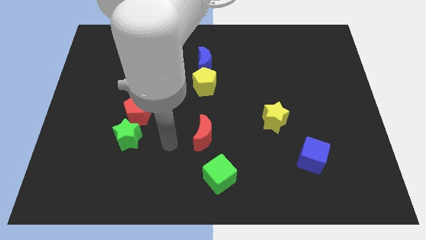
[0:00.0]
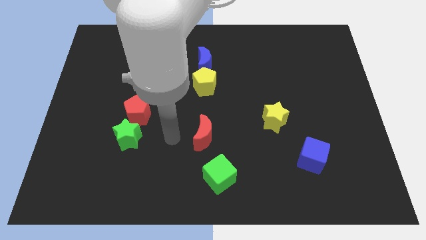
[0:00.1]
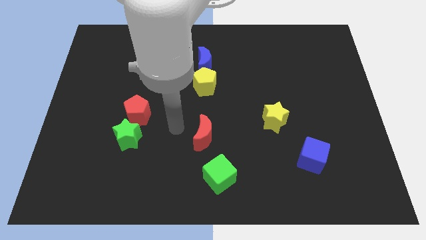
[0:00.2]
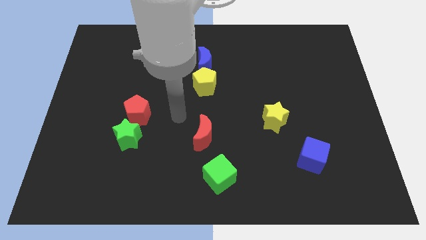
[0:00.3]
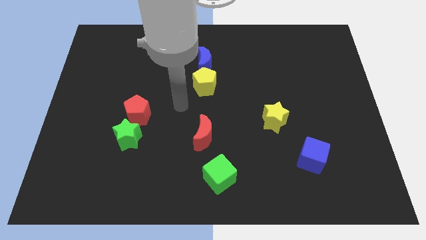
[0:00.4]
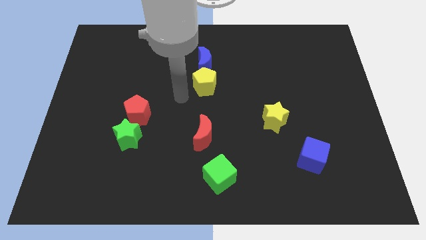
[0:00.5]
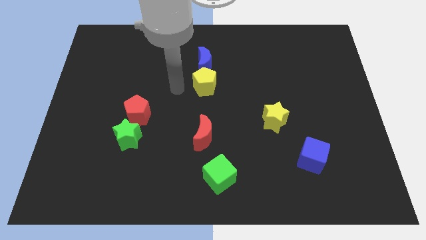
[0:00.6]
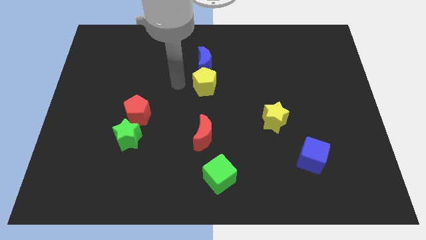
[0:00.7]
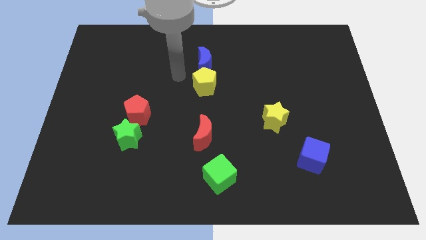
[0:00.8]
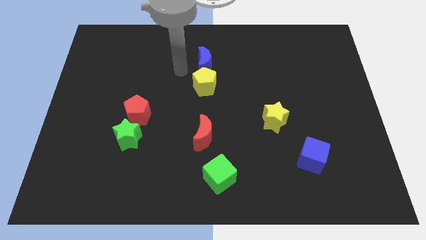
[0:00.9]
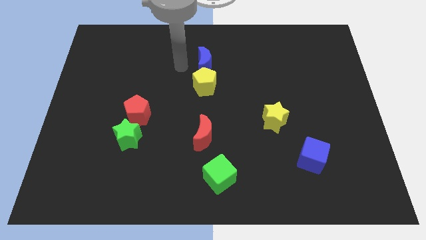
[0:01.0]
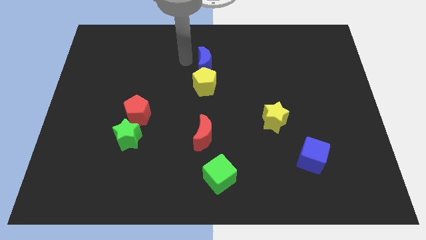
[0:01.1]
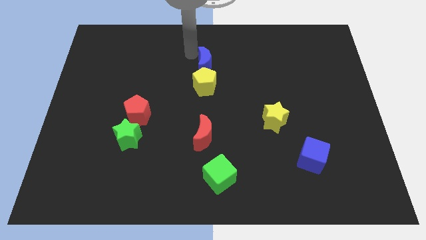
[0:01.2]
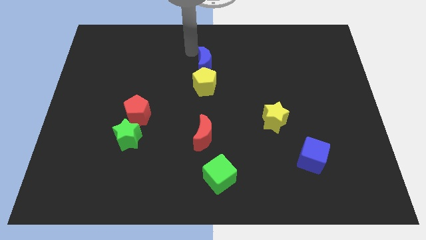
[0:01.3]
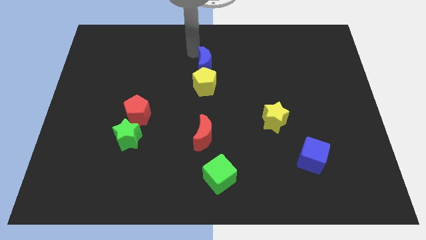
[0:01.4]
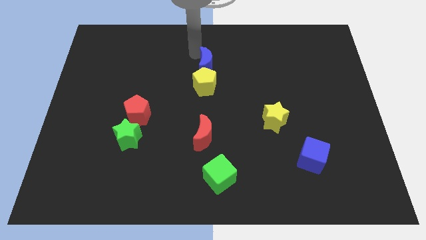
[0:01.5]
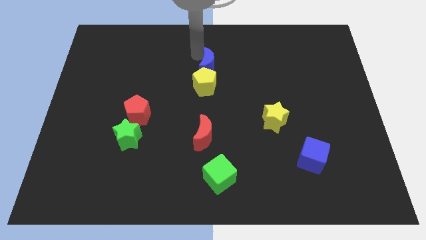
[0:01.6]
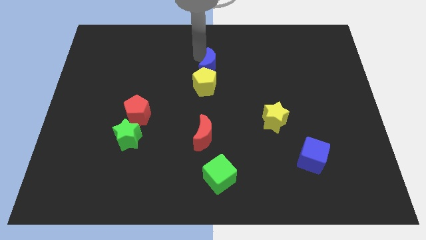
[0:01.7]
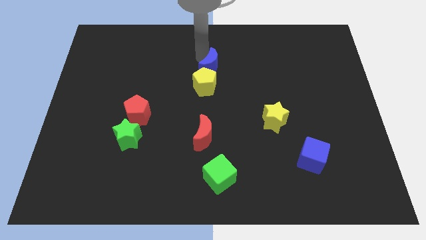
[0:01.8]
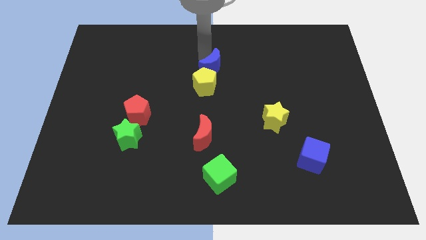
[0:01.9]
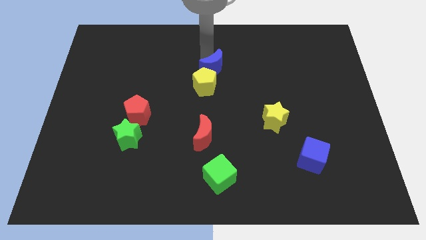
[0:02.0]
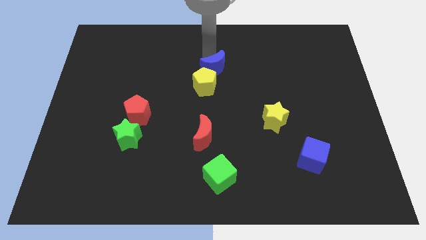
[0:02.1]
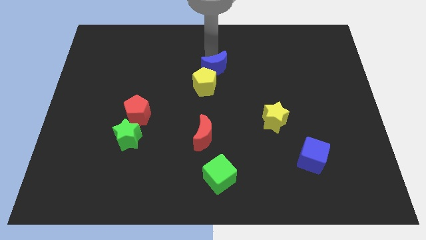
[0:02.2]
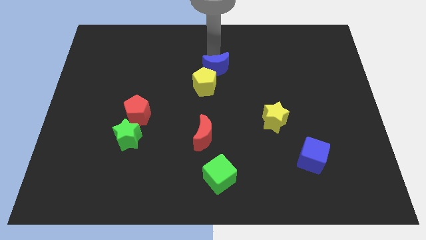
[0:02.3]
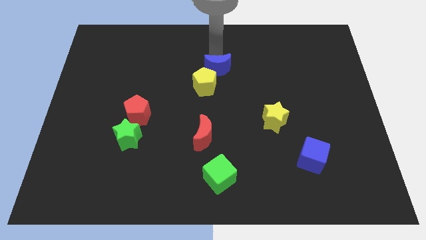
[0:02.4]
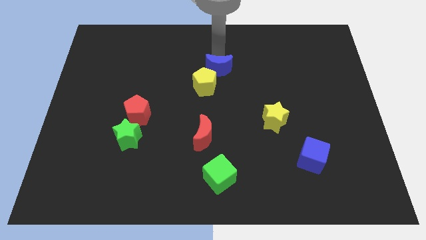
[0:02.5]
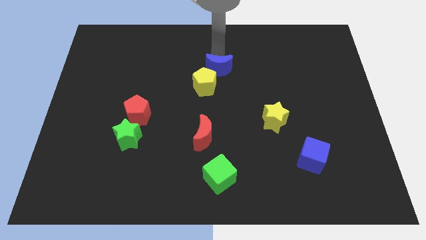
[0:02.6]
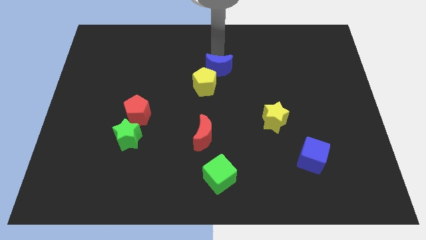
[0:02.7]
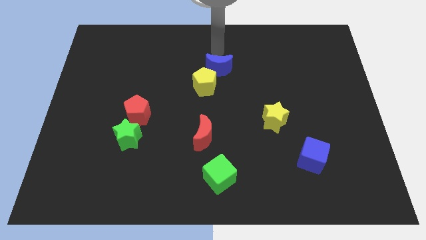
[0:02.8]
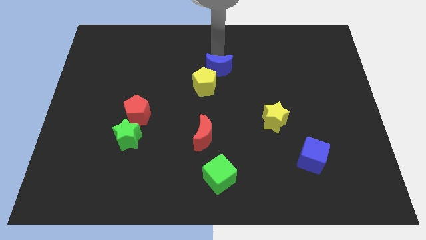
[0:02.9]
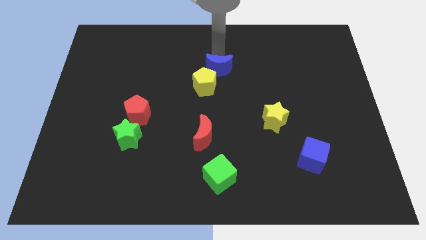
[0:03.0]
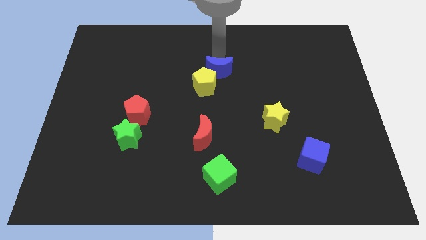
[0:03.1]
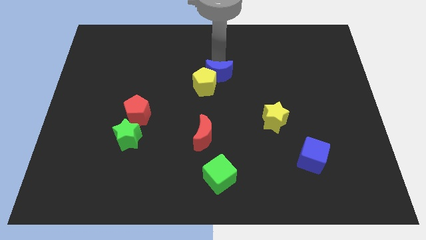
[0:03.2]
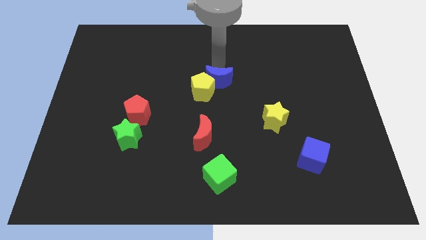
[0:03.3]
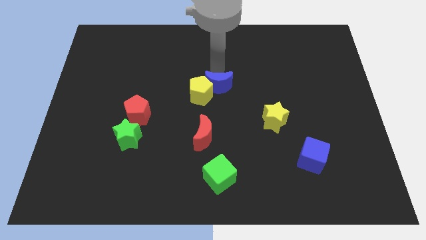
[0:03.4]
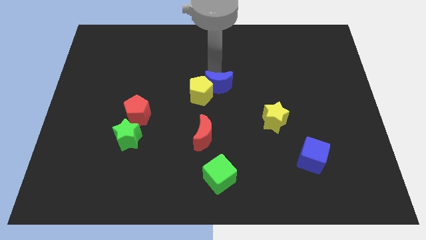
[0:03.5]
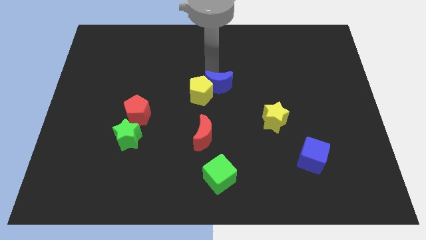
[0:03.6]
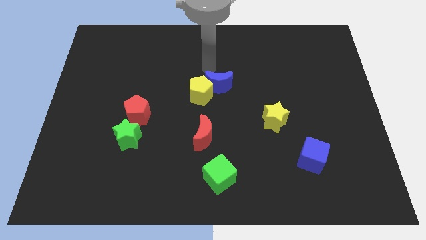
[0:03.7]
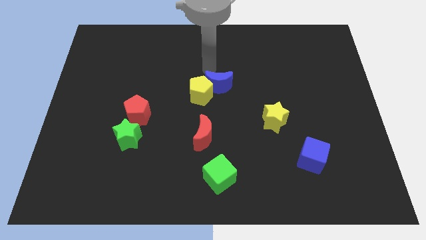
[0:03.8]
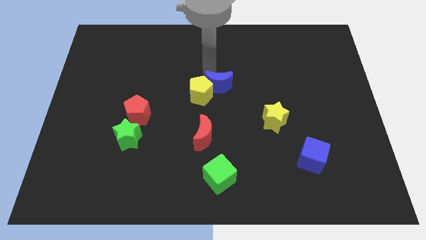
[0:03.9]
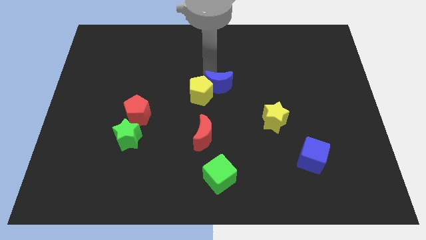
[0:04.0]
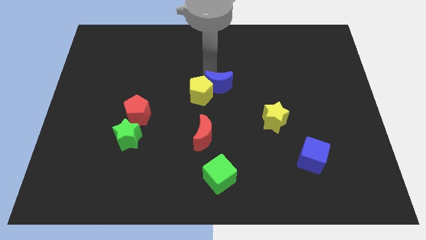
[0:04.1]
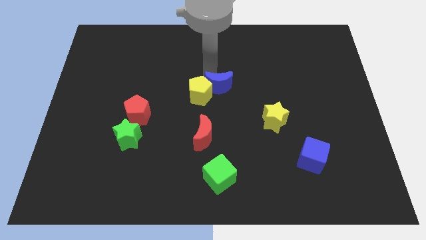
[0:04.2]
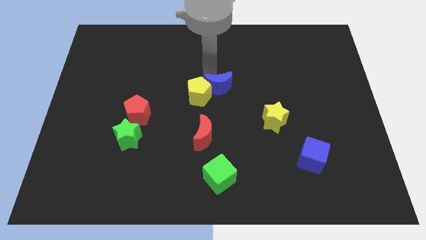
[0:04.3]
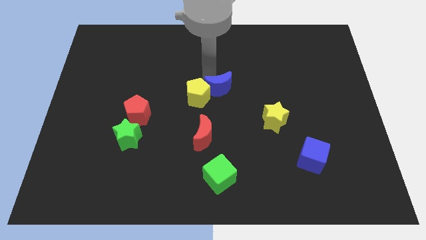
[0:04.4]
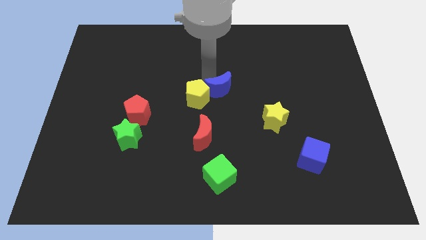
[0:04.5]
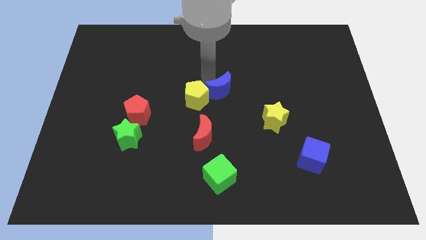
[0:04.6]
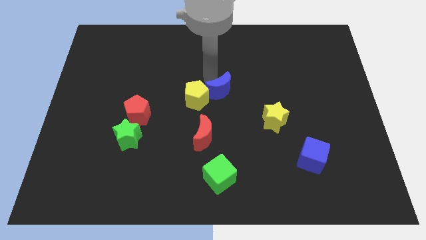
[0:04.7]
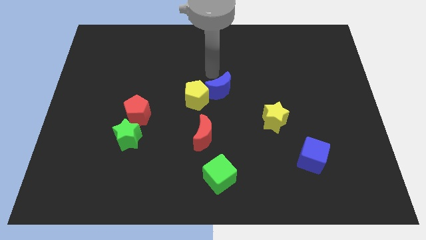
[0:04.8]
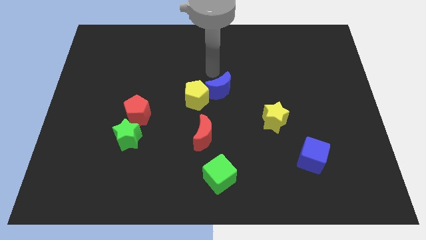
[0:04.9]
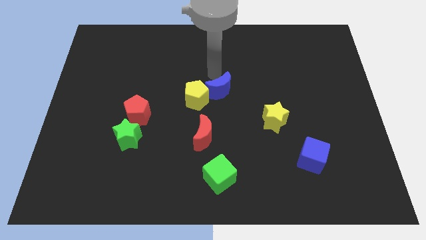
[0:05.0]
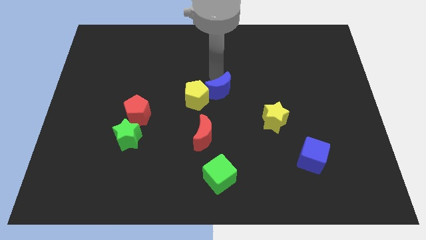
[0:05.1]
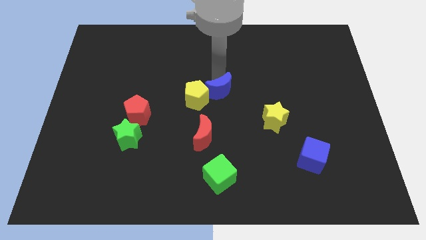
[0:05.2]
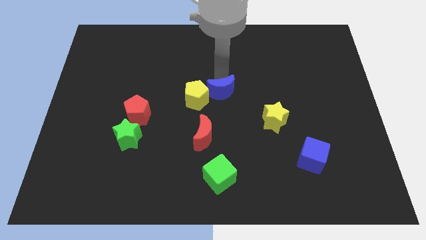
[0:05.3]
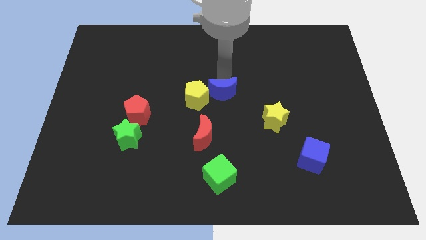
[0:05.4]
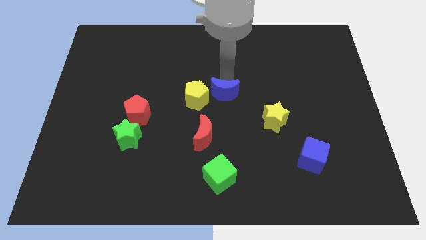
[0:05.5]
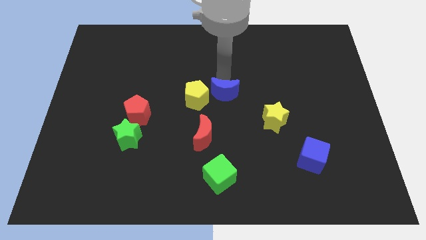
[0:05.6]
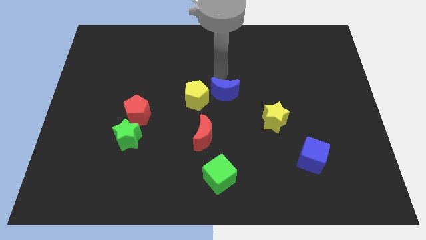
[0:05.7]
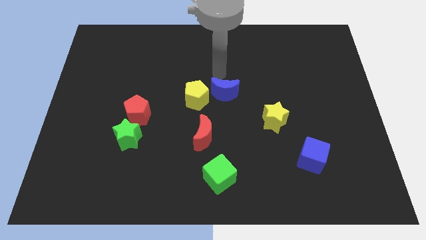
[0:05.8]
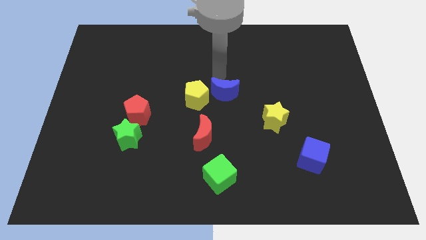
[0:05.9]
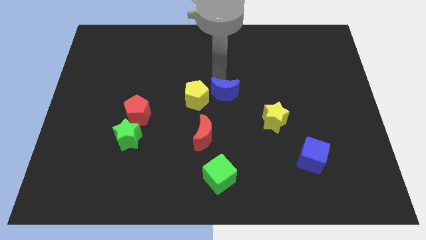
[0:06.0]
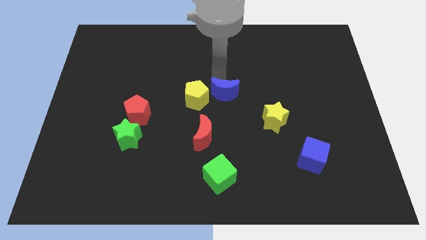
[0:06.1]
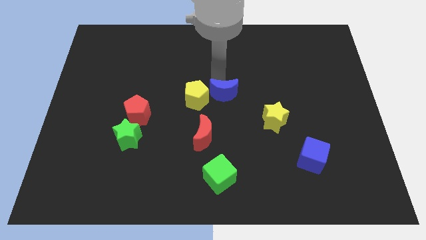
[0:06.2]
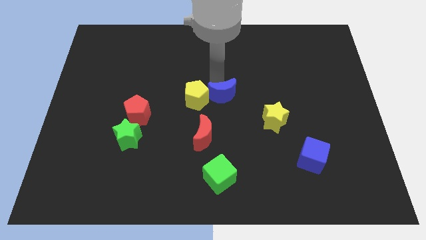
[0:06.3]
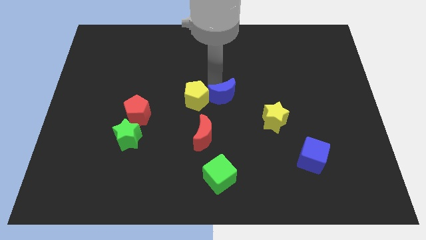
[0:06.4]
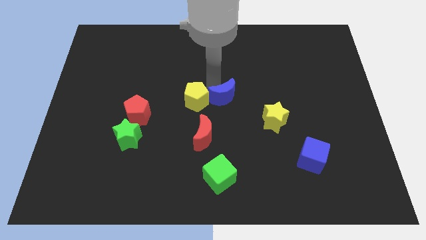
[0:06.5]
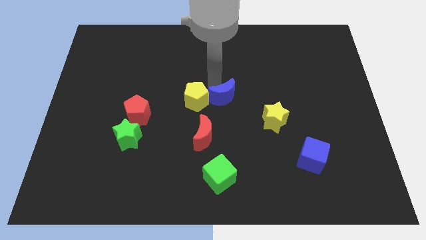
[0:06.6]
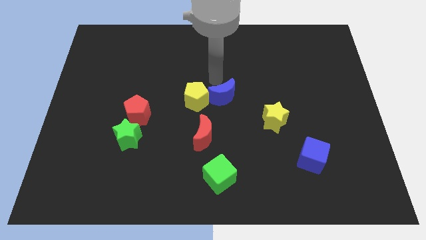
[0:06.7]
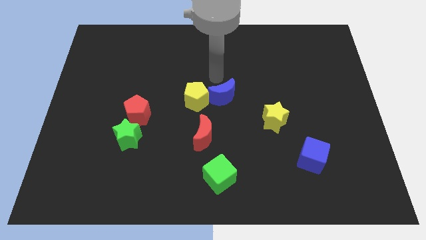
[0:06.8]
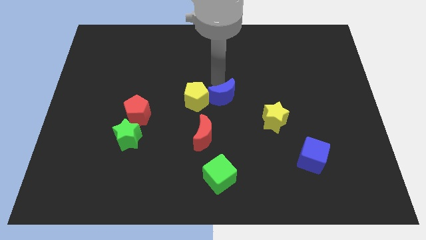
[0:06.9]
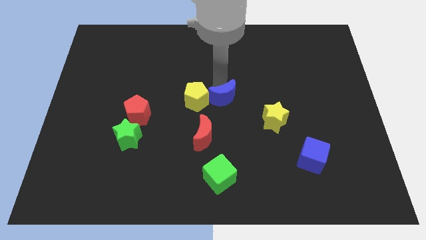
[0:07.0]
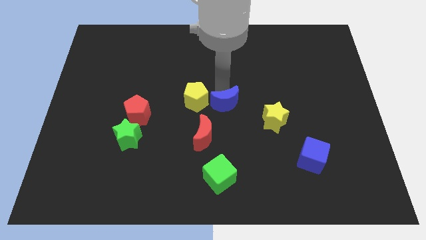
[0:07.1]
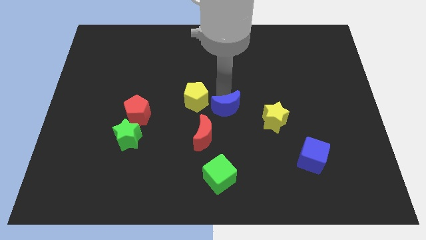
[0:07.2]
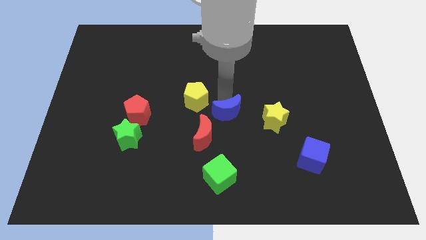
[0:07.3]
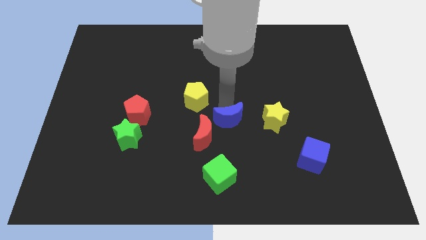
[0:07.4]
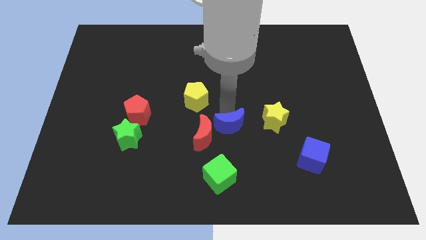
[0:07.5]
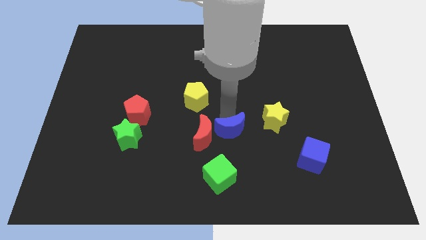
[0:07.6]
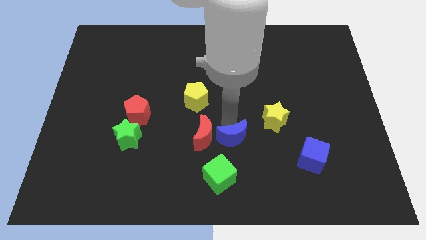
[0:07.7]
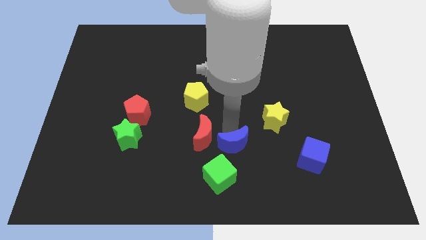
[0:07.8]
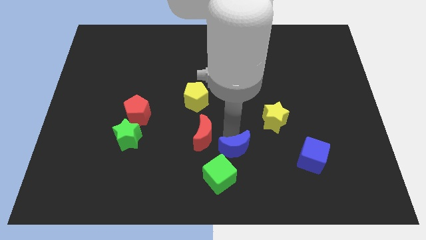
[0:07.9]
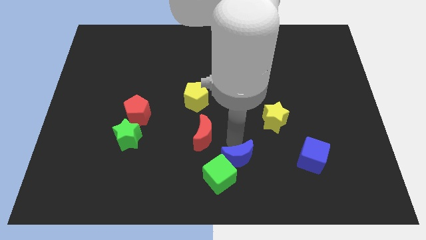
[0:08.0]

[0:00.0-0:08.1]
push the blue moon to the bottom
